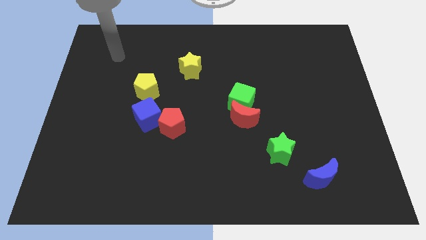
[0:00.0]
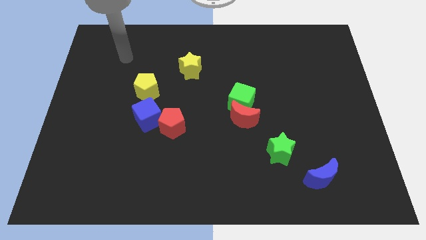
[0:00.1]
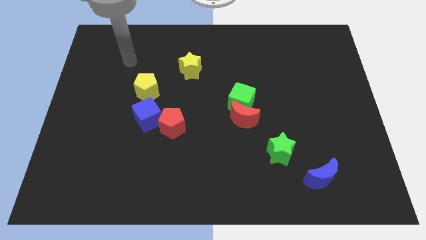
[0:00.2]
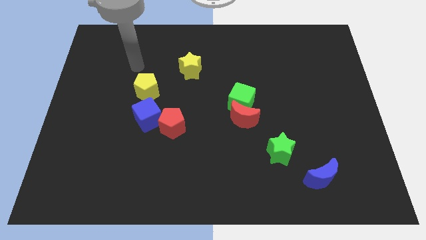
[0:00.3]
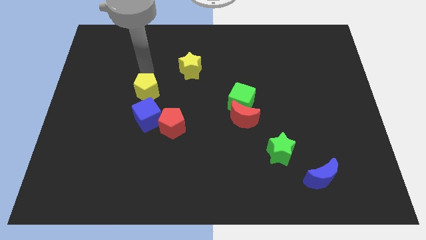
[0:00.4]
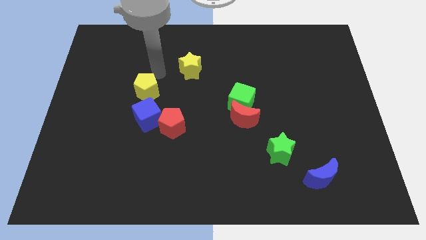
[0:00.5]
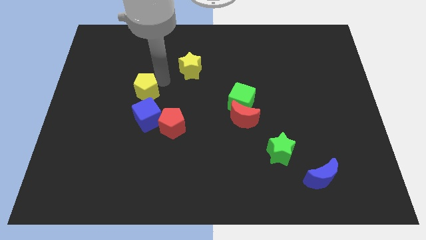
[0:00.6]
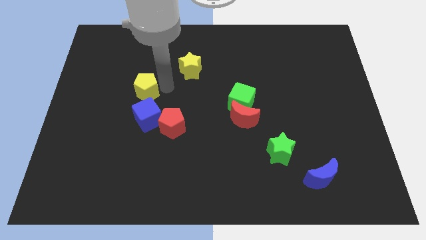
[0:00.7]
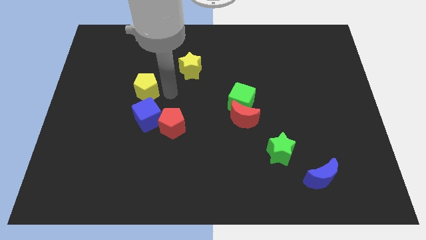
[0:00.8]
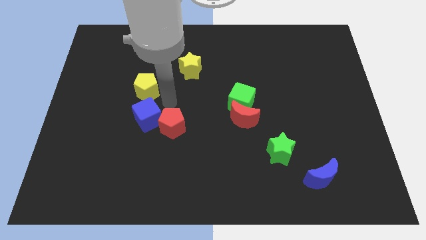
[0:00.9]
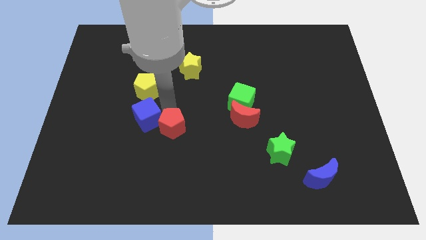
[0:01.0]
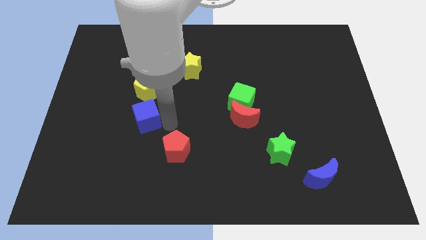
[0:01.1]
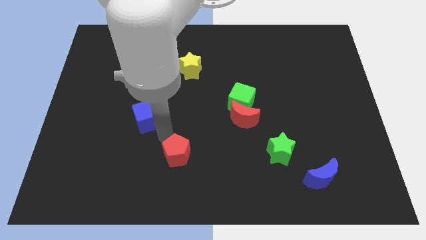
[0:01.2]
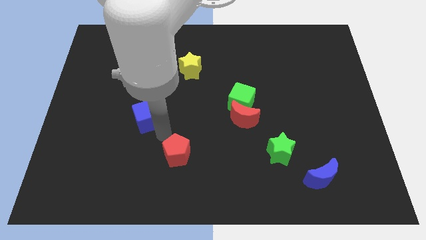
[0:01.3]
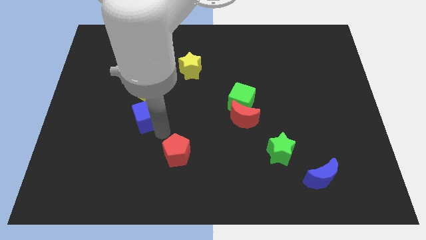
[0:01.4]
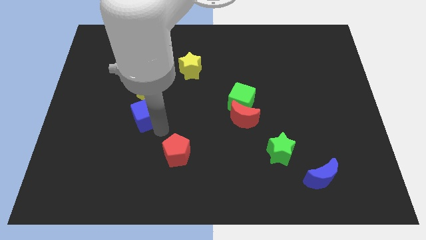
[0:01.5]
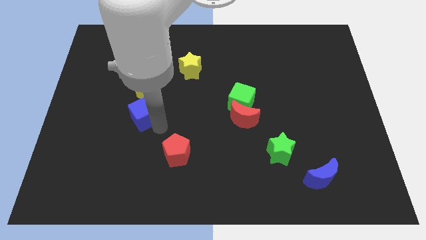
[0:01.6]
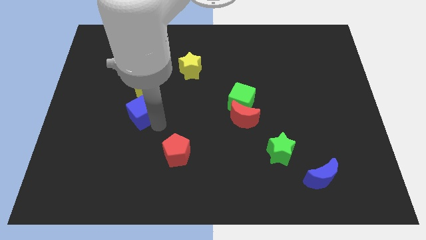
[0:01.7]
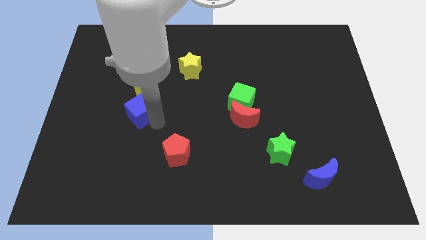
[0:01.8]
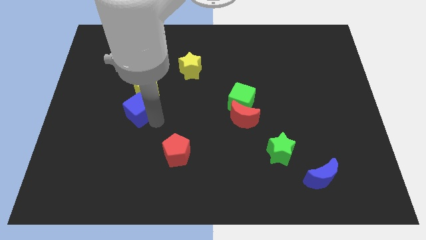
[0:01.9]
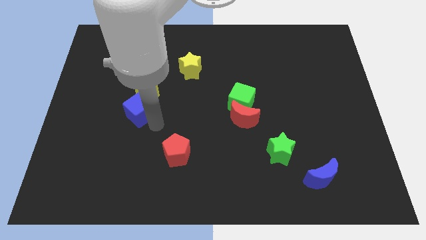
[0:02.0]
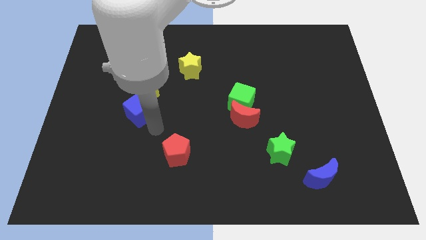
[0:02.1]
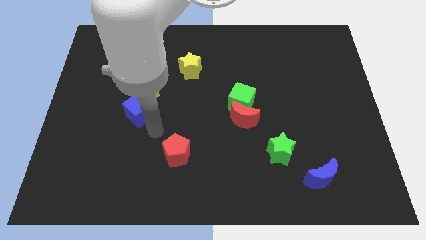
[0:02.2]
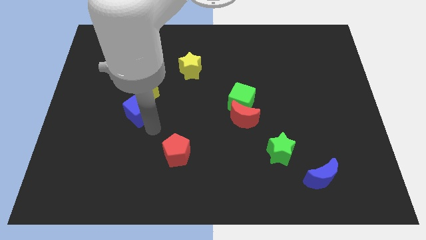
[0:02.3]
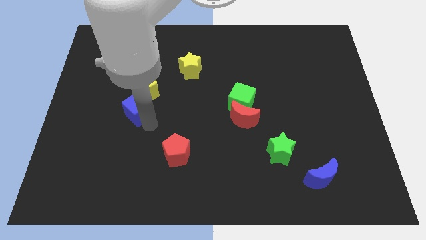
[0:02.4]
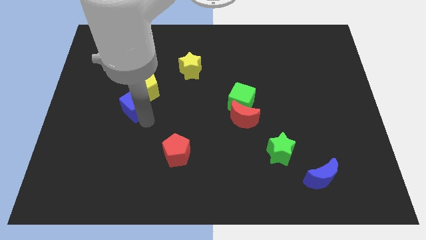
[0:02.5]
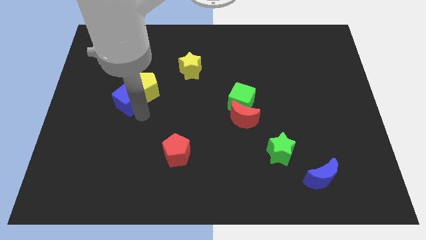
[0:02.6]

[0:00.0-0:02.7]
push the blue cube a little up and then to the left

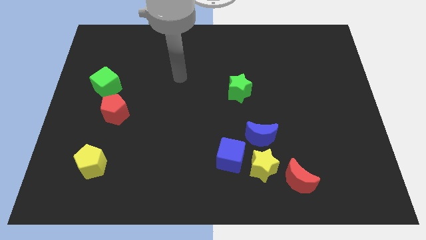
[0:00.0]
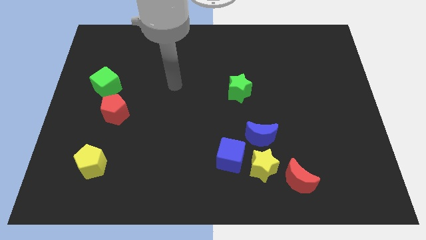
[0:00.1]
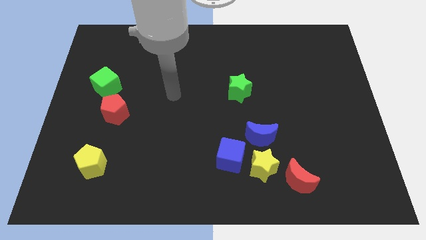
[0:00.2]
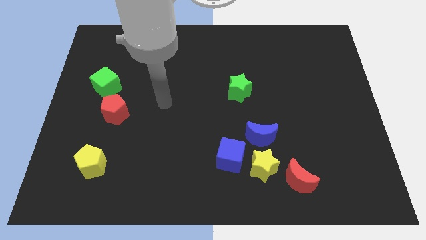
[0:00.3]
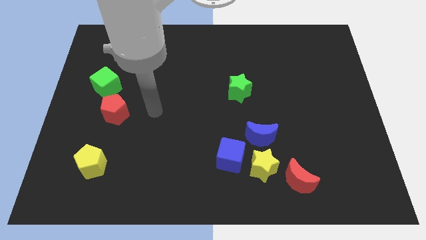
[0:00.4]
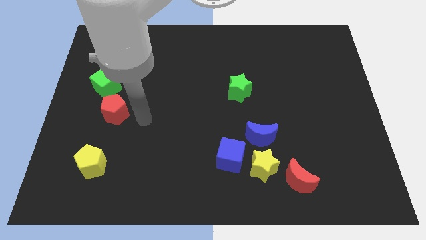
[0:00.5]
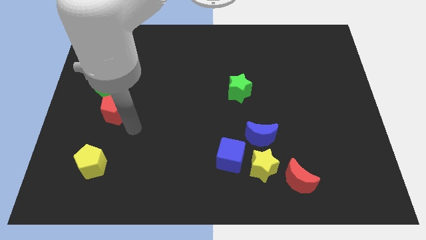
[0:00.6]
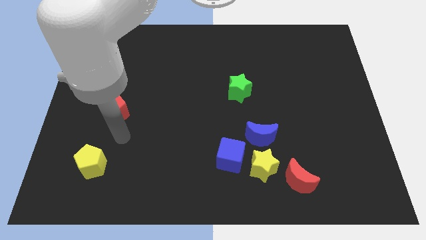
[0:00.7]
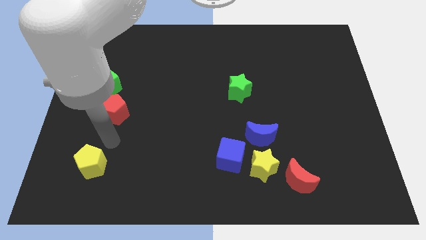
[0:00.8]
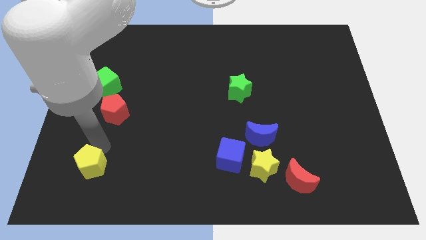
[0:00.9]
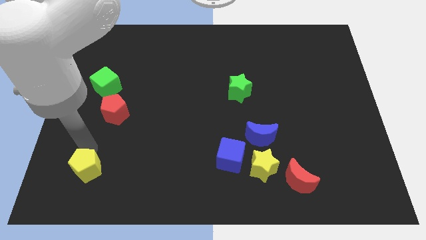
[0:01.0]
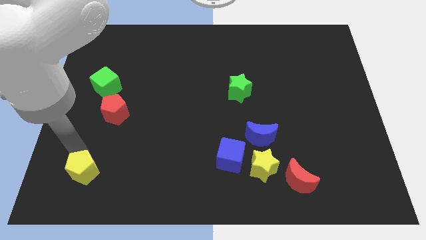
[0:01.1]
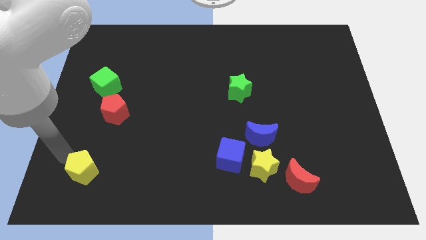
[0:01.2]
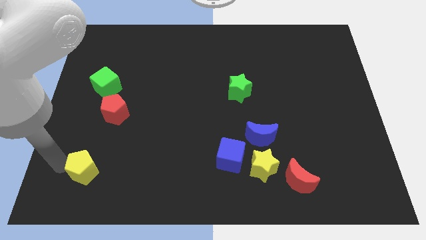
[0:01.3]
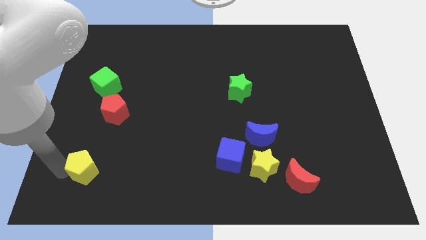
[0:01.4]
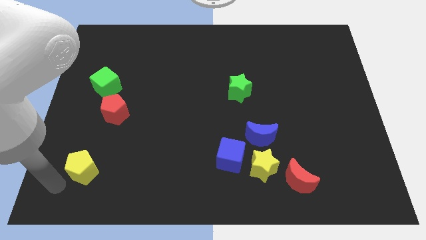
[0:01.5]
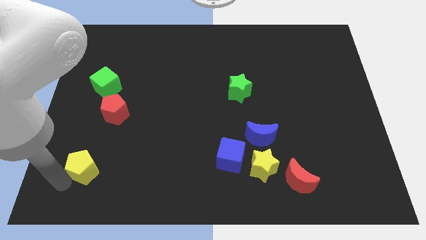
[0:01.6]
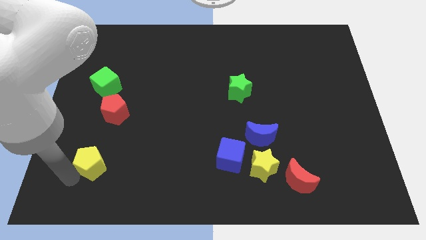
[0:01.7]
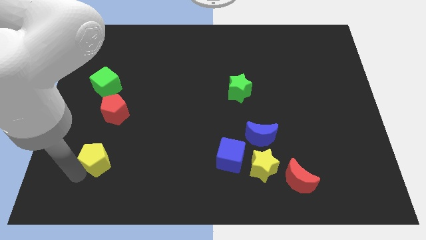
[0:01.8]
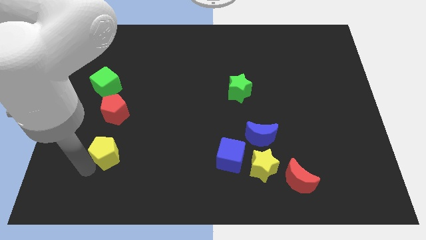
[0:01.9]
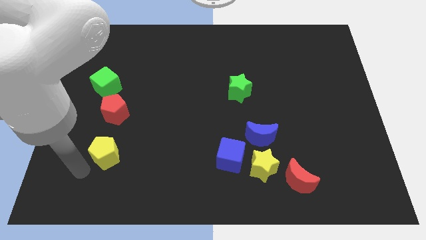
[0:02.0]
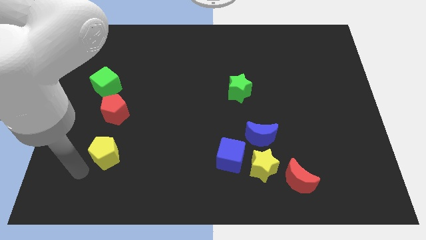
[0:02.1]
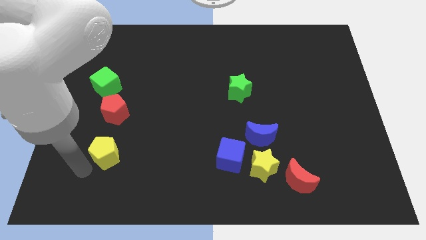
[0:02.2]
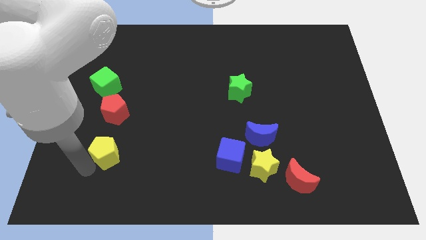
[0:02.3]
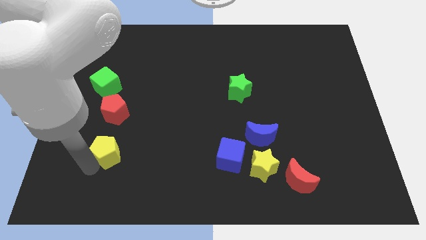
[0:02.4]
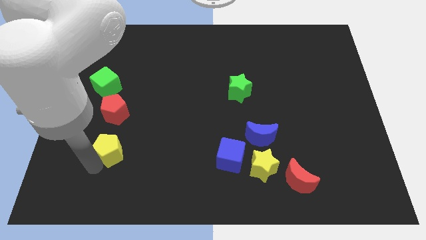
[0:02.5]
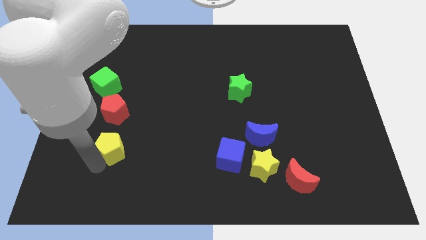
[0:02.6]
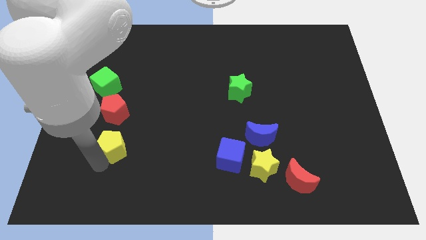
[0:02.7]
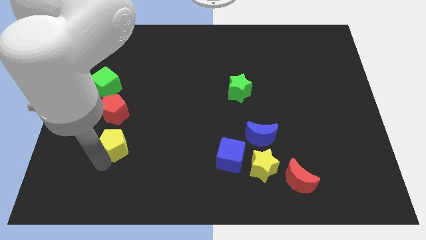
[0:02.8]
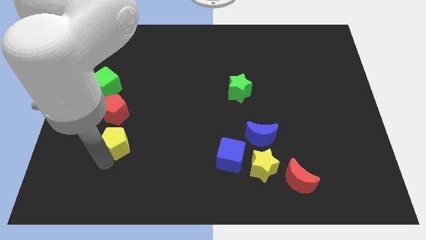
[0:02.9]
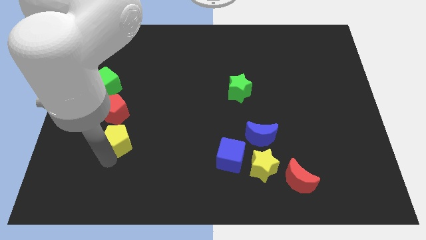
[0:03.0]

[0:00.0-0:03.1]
slide the yellow pentagon a little up and to the right

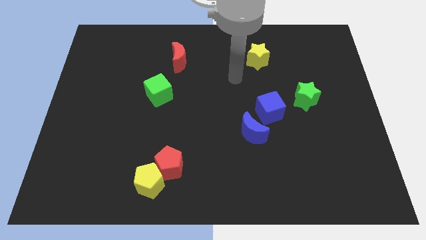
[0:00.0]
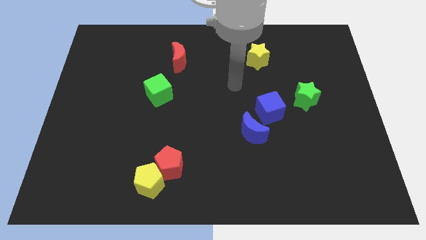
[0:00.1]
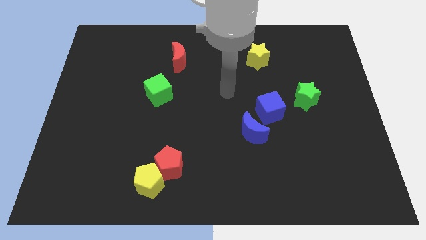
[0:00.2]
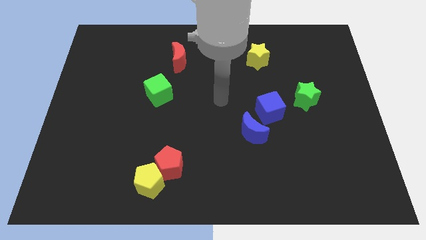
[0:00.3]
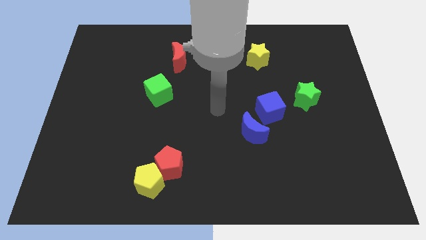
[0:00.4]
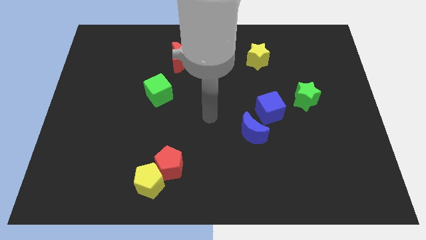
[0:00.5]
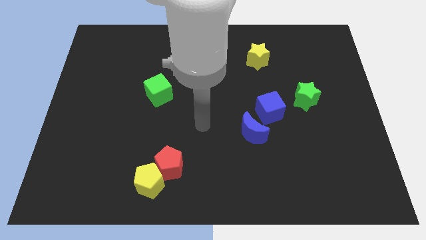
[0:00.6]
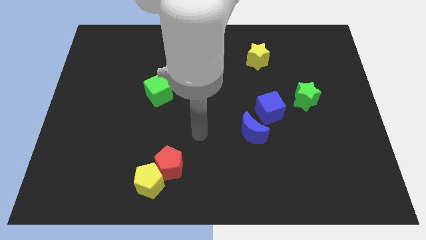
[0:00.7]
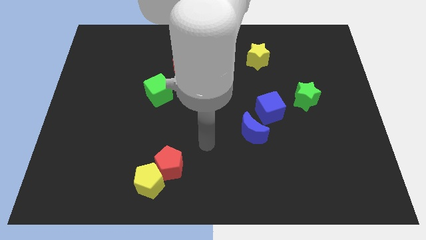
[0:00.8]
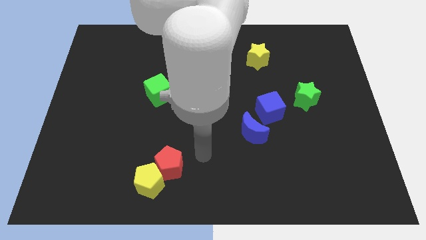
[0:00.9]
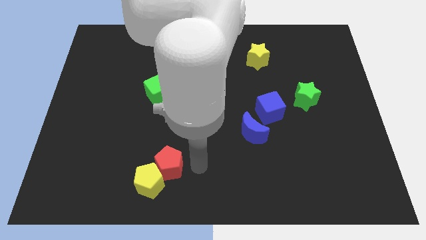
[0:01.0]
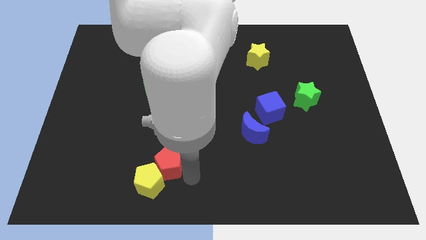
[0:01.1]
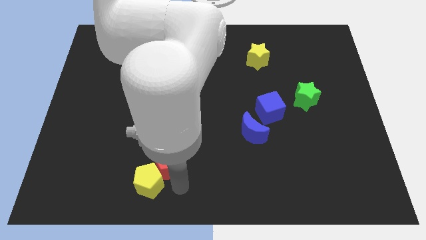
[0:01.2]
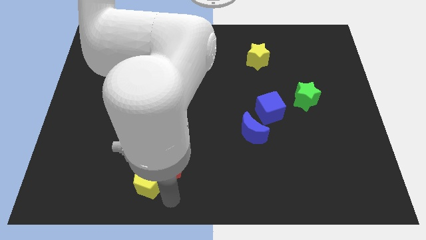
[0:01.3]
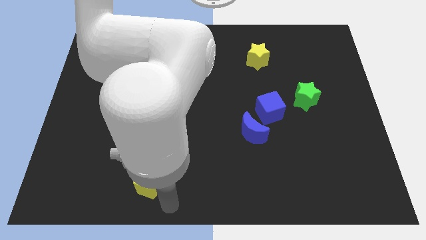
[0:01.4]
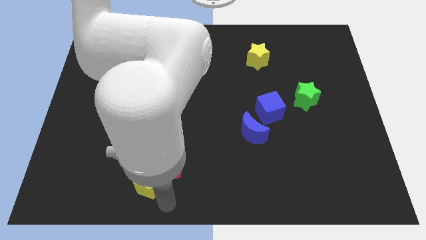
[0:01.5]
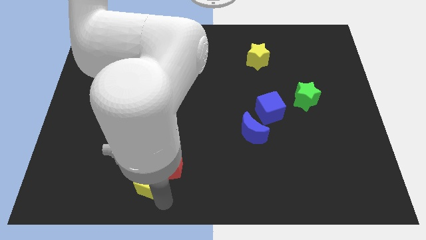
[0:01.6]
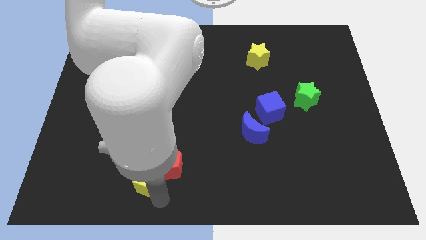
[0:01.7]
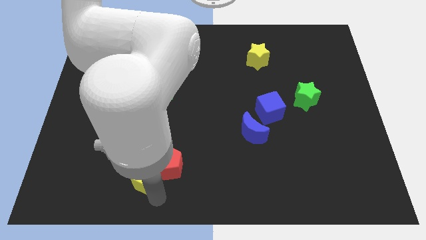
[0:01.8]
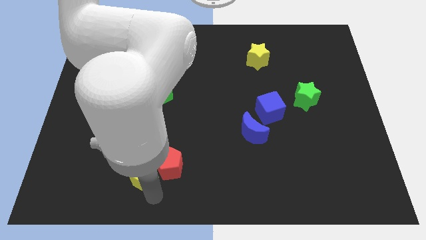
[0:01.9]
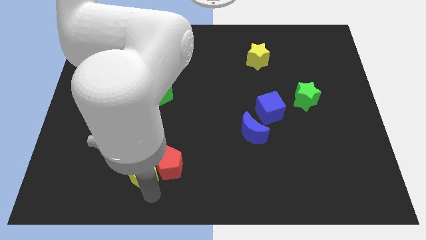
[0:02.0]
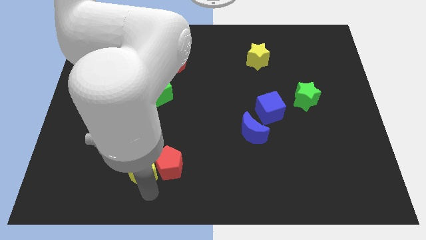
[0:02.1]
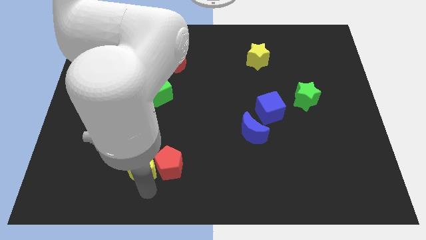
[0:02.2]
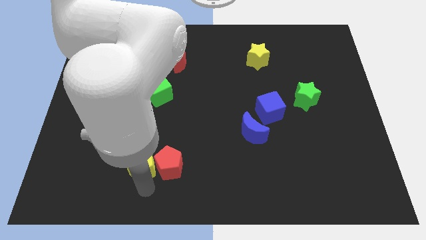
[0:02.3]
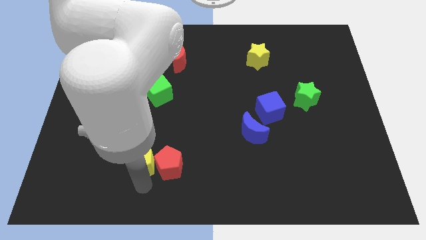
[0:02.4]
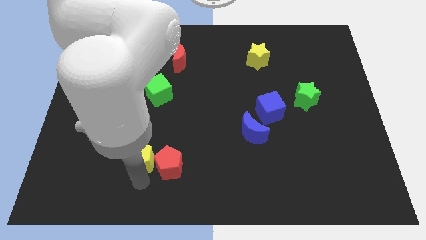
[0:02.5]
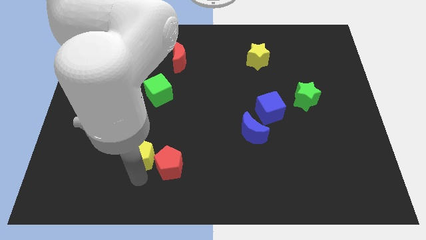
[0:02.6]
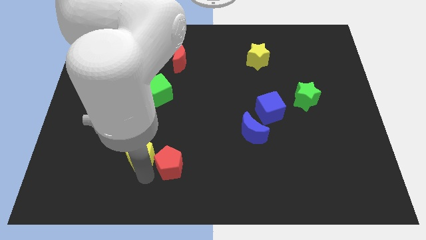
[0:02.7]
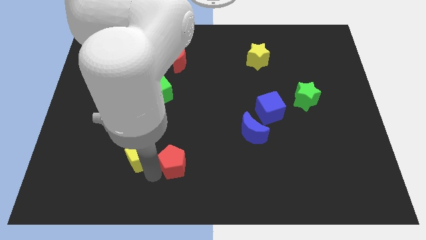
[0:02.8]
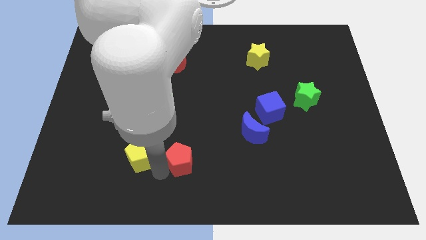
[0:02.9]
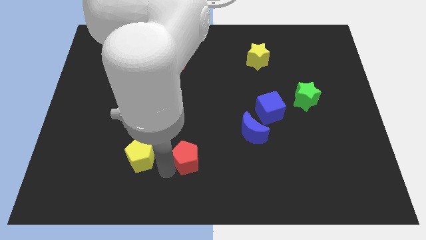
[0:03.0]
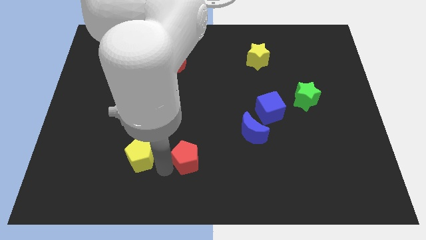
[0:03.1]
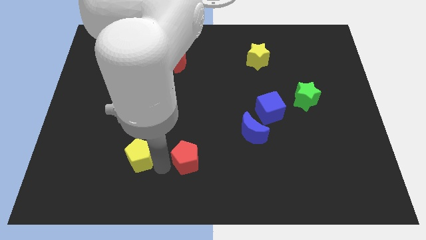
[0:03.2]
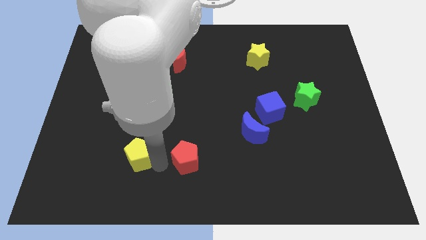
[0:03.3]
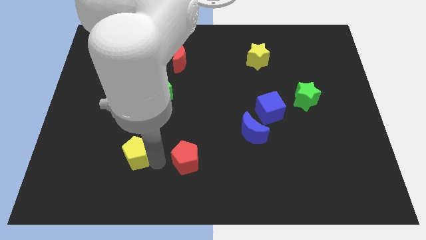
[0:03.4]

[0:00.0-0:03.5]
move the yellow pentagon a little upwards and then left
